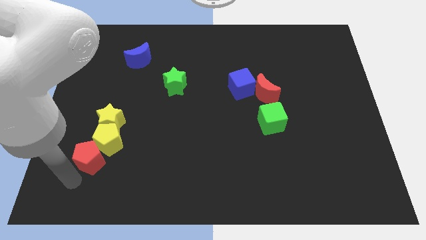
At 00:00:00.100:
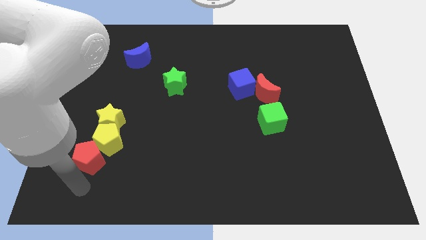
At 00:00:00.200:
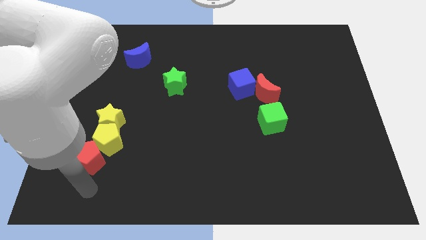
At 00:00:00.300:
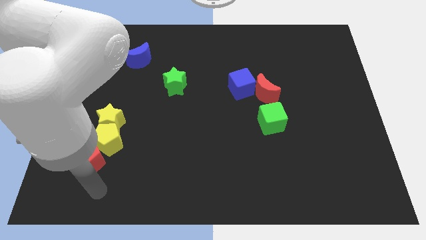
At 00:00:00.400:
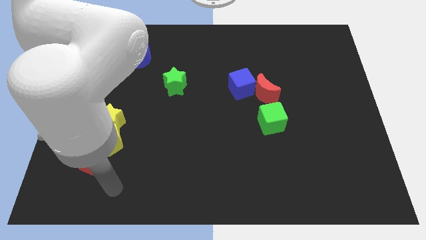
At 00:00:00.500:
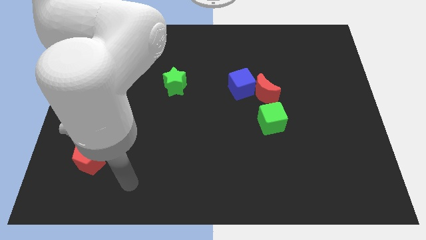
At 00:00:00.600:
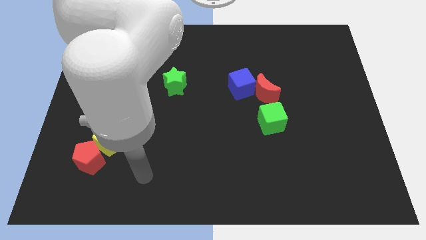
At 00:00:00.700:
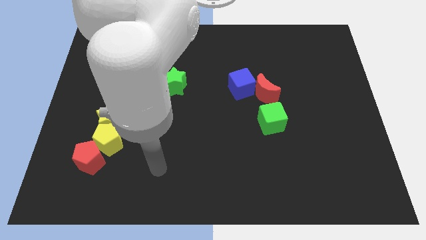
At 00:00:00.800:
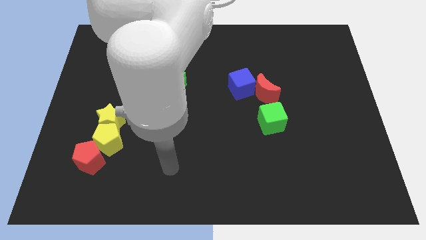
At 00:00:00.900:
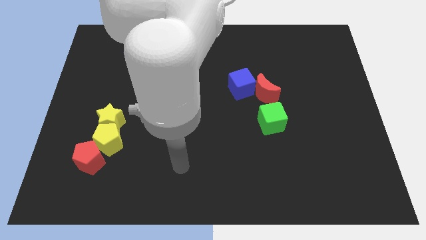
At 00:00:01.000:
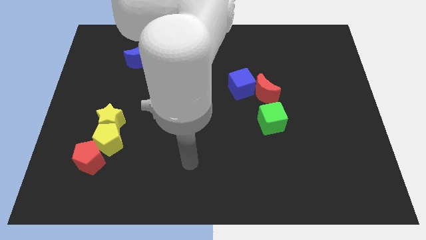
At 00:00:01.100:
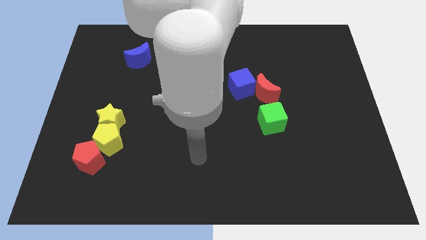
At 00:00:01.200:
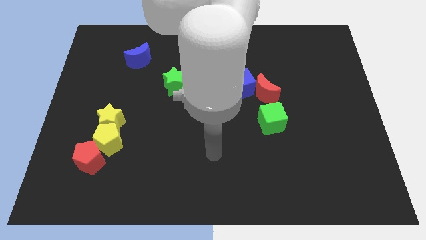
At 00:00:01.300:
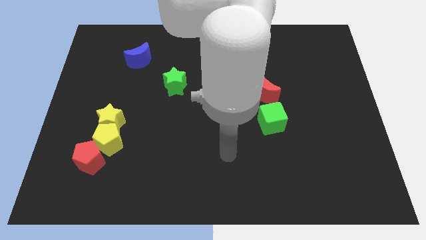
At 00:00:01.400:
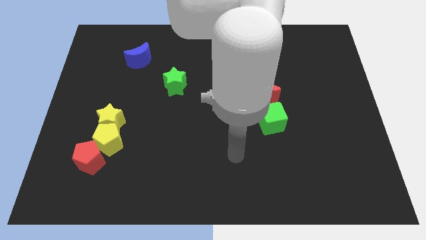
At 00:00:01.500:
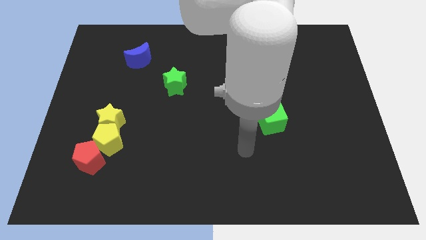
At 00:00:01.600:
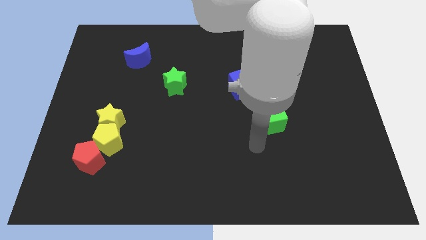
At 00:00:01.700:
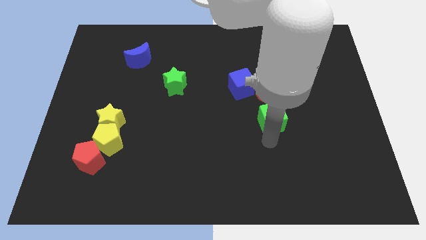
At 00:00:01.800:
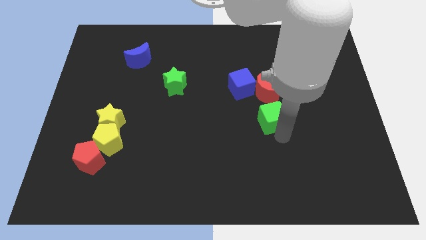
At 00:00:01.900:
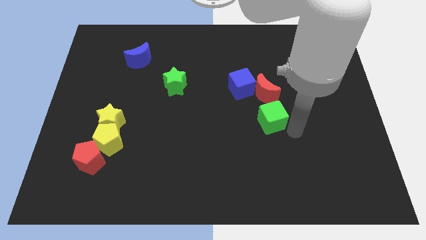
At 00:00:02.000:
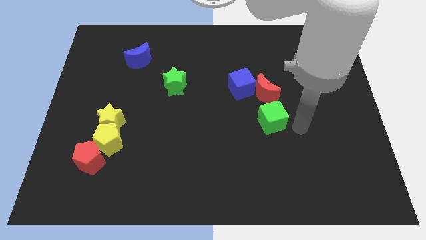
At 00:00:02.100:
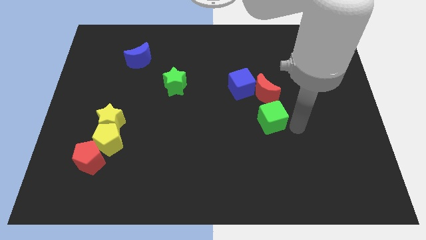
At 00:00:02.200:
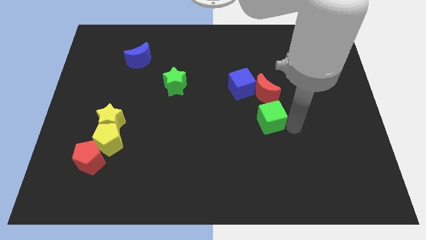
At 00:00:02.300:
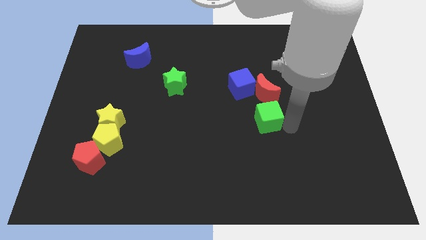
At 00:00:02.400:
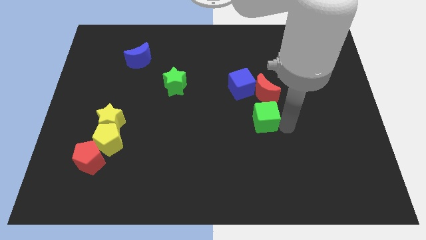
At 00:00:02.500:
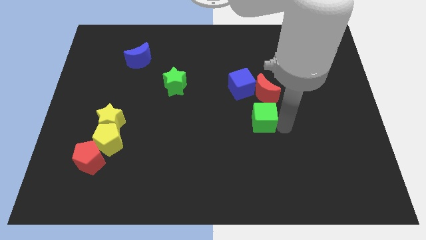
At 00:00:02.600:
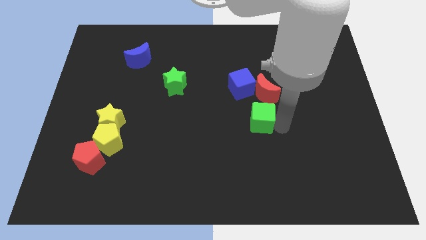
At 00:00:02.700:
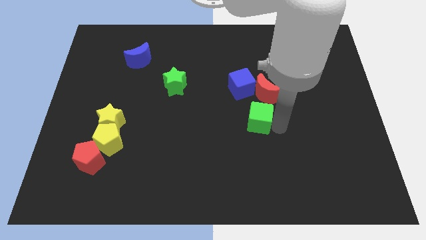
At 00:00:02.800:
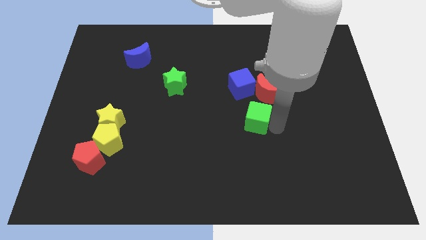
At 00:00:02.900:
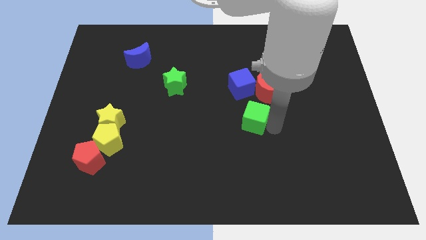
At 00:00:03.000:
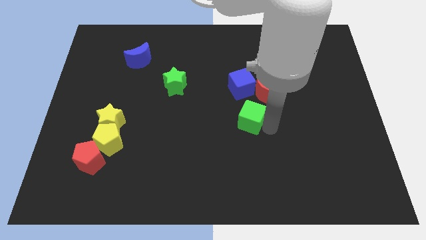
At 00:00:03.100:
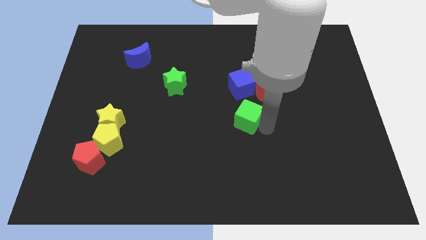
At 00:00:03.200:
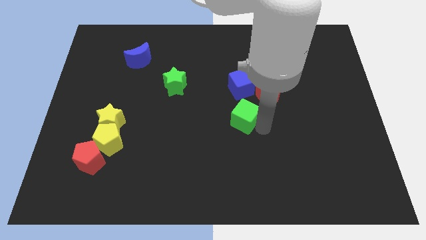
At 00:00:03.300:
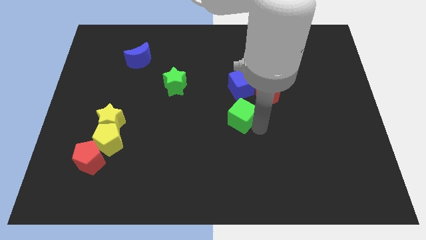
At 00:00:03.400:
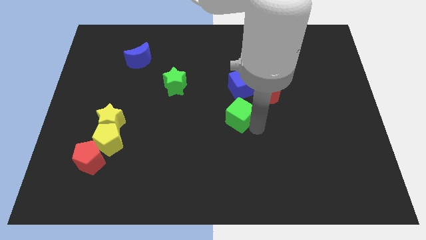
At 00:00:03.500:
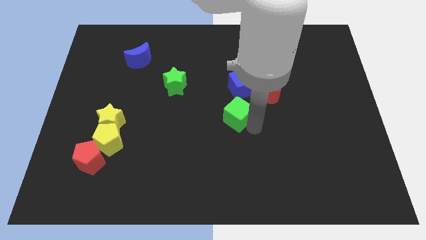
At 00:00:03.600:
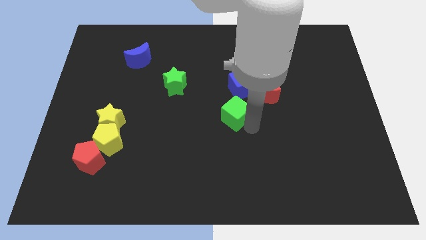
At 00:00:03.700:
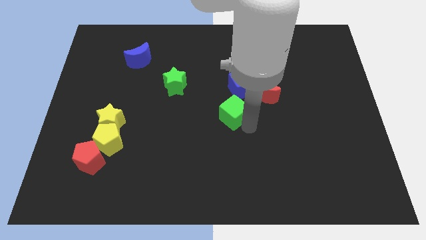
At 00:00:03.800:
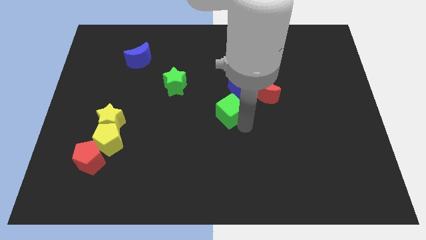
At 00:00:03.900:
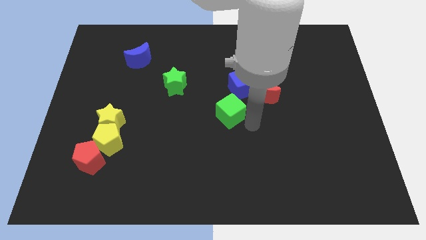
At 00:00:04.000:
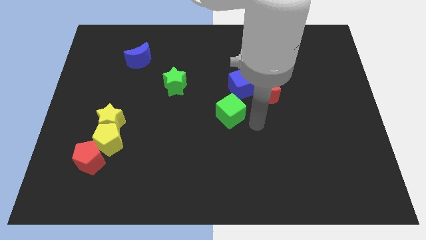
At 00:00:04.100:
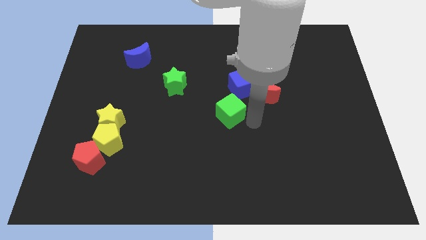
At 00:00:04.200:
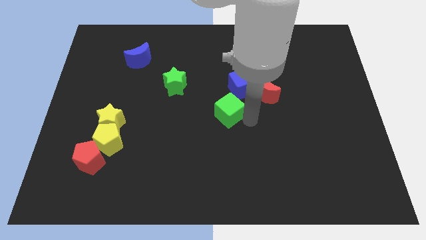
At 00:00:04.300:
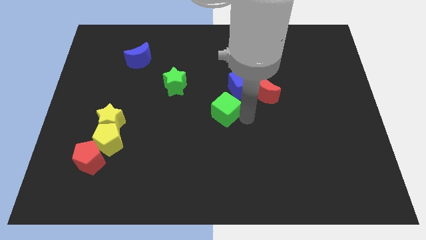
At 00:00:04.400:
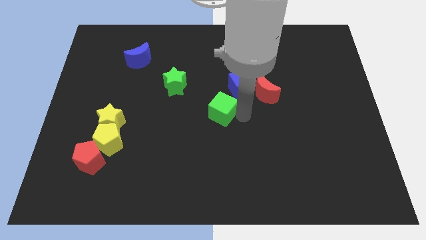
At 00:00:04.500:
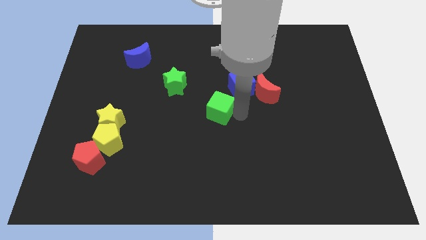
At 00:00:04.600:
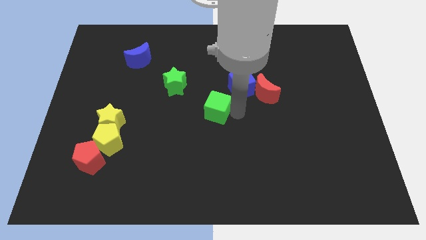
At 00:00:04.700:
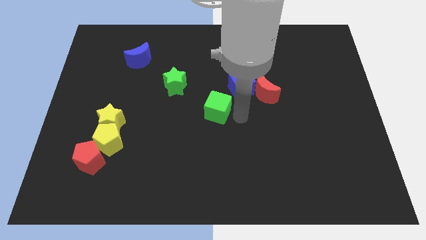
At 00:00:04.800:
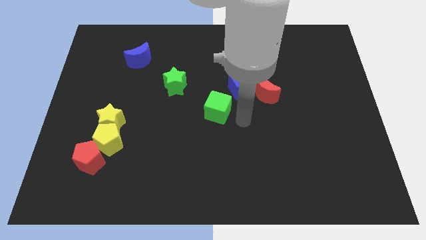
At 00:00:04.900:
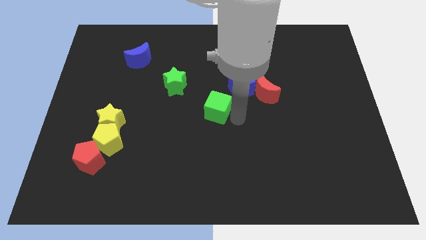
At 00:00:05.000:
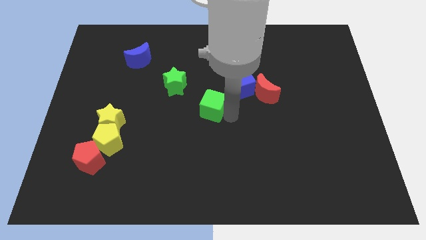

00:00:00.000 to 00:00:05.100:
push the green cube to the bottom right side of the green star

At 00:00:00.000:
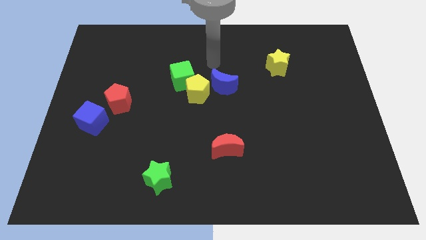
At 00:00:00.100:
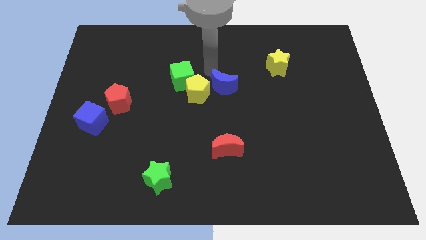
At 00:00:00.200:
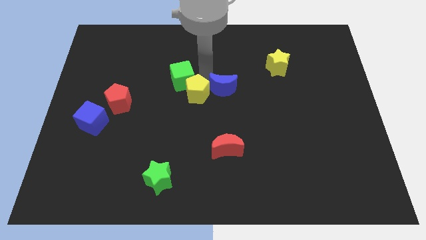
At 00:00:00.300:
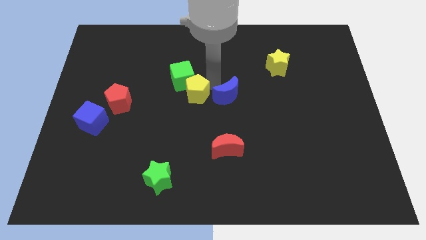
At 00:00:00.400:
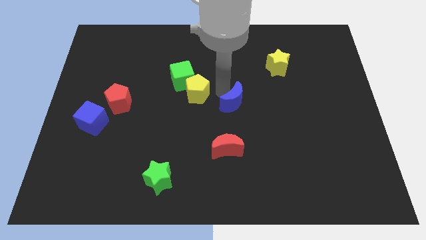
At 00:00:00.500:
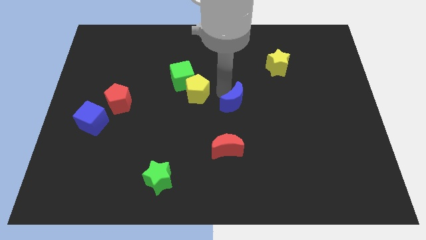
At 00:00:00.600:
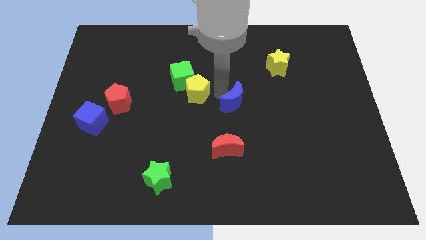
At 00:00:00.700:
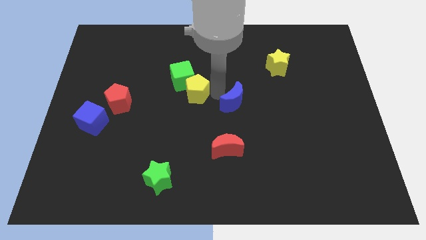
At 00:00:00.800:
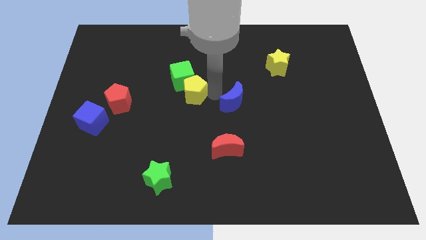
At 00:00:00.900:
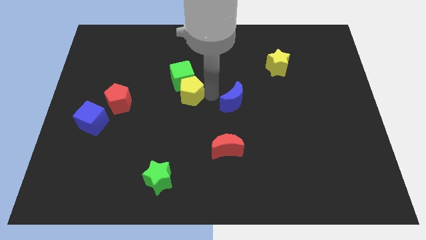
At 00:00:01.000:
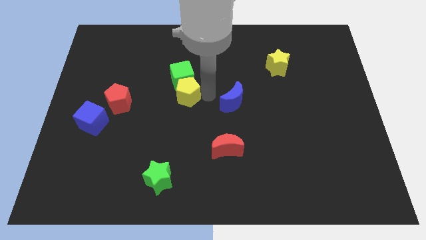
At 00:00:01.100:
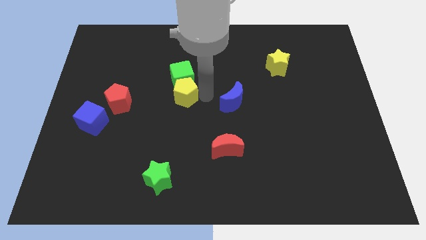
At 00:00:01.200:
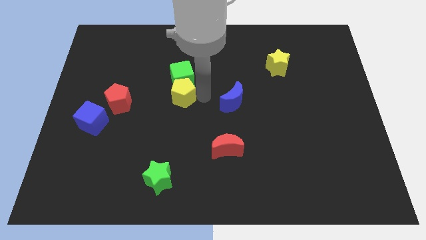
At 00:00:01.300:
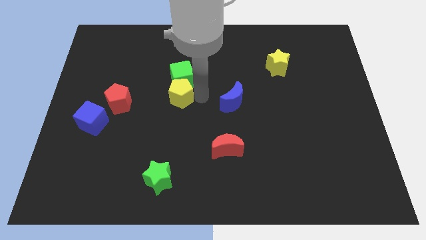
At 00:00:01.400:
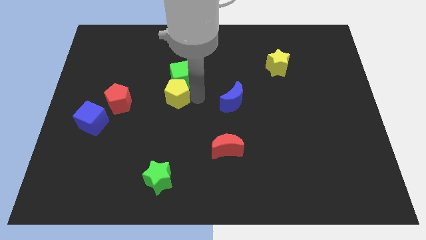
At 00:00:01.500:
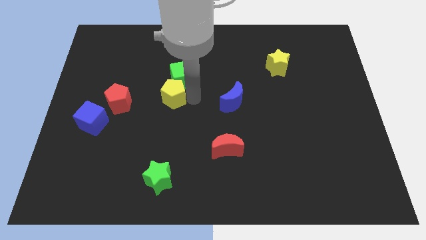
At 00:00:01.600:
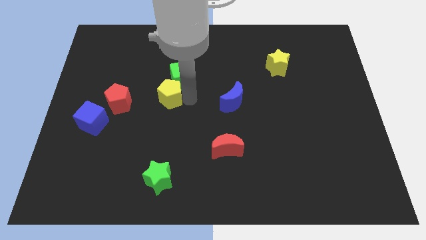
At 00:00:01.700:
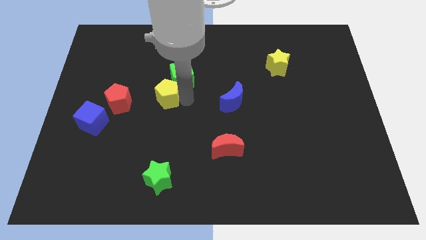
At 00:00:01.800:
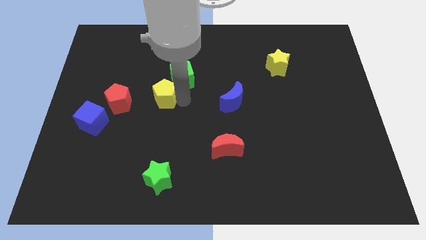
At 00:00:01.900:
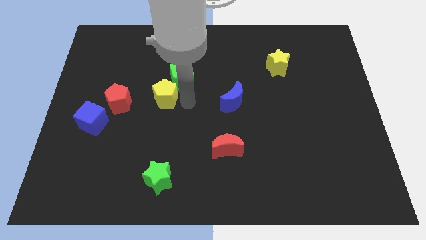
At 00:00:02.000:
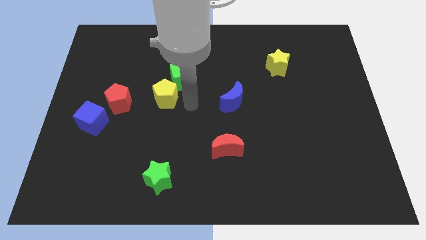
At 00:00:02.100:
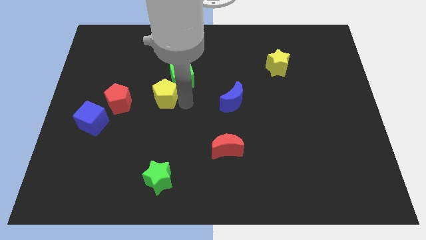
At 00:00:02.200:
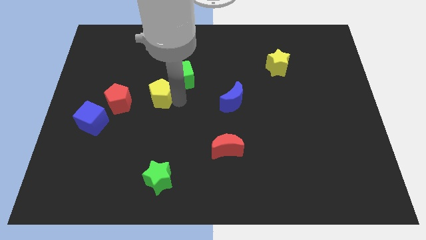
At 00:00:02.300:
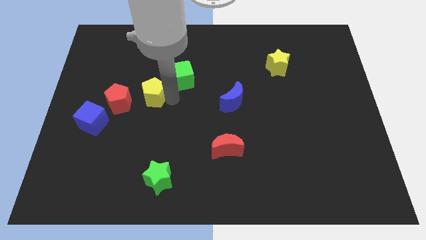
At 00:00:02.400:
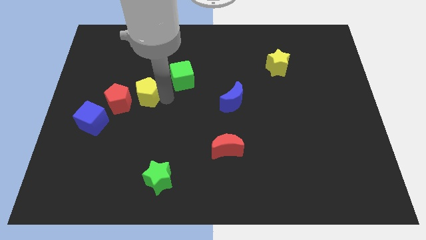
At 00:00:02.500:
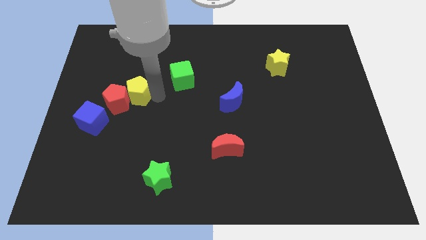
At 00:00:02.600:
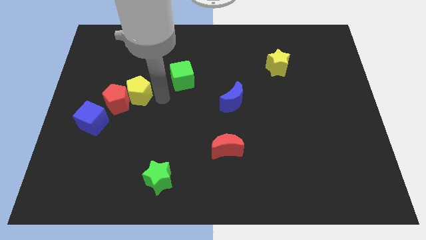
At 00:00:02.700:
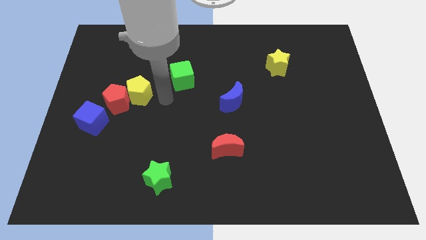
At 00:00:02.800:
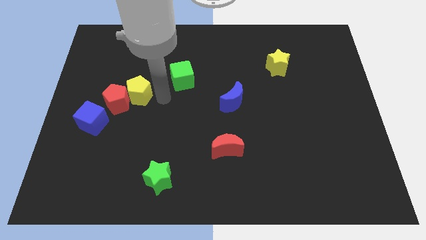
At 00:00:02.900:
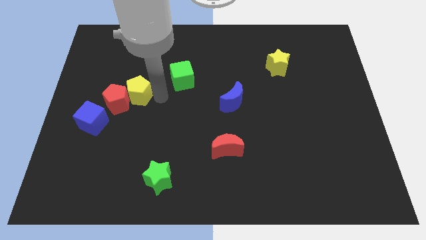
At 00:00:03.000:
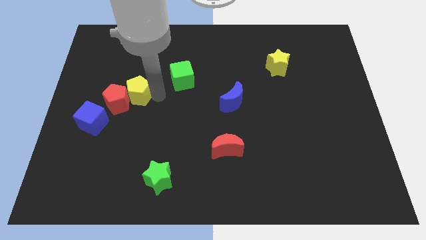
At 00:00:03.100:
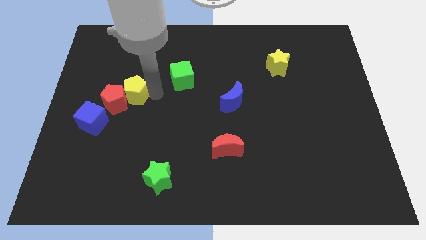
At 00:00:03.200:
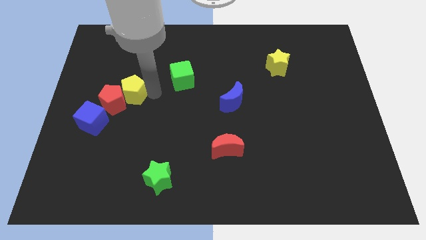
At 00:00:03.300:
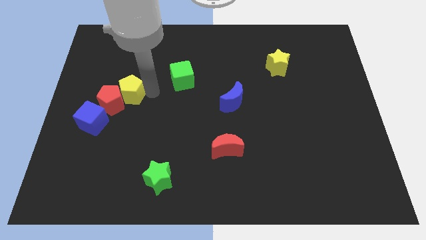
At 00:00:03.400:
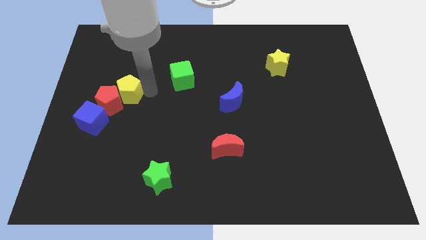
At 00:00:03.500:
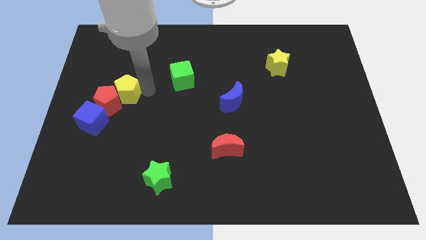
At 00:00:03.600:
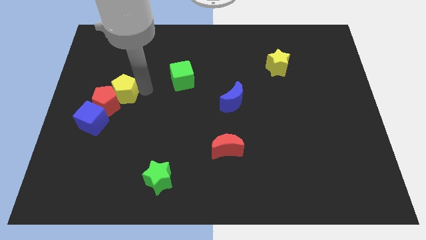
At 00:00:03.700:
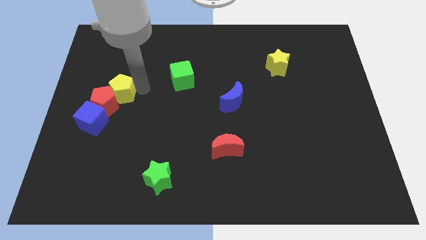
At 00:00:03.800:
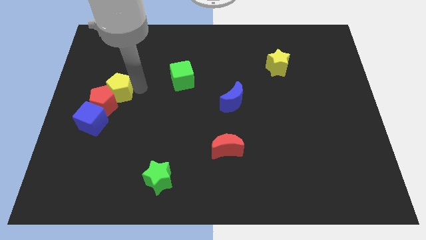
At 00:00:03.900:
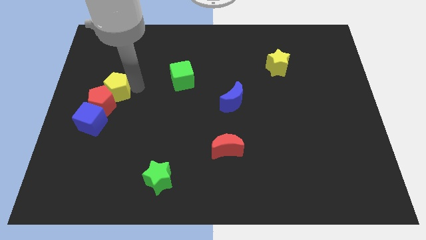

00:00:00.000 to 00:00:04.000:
slide the yellow pentagon to the top side of the blue cube
